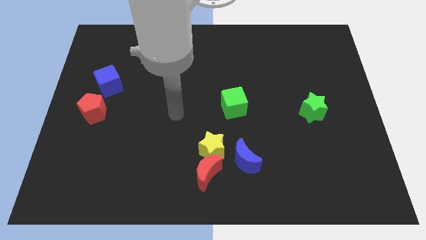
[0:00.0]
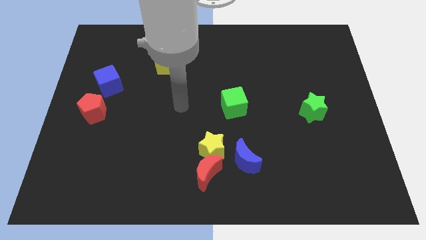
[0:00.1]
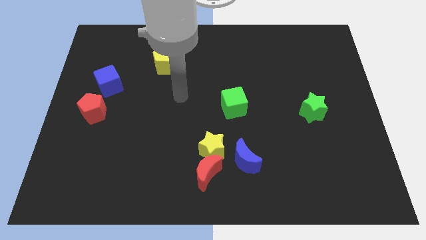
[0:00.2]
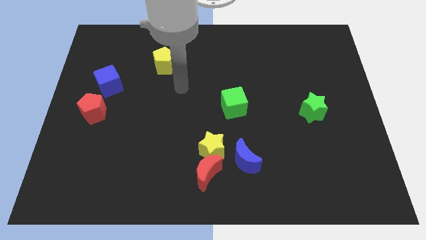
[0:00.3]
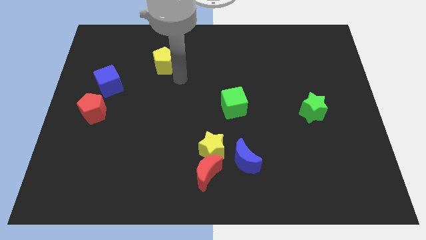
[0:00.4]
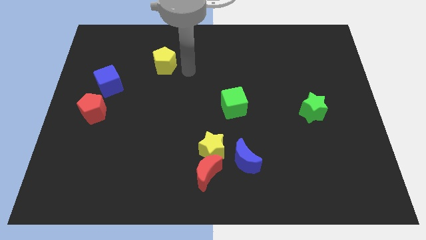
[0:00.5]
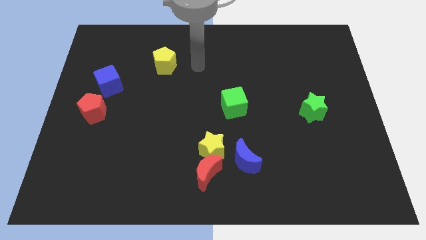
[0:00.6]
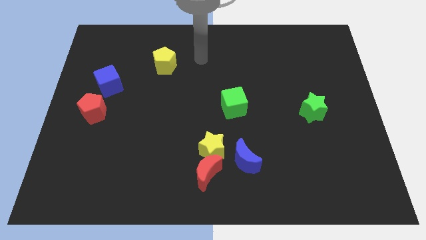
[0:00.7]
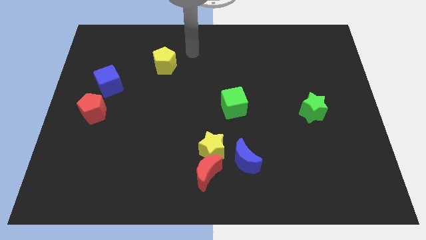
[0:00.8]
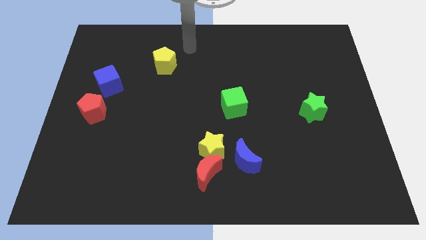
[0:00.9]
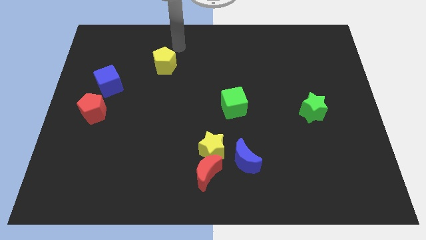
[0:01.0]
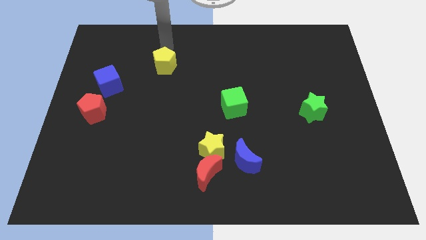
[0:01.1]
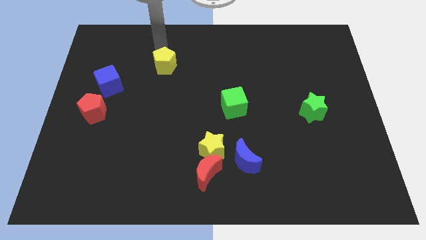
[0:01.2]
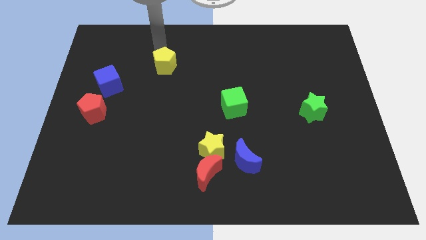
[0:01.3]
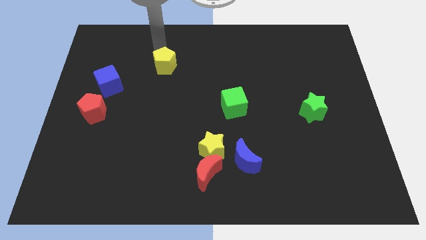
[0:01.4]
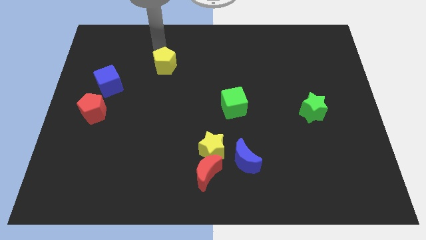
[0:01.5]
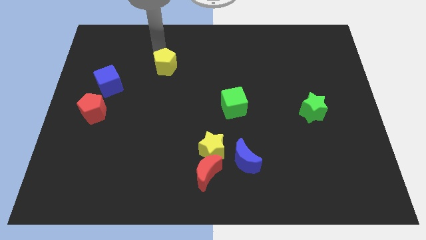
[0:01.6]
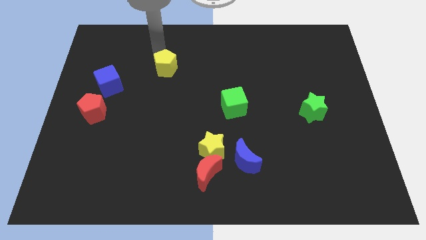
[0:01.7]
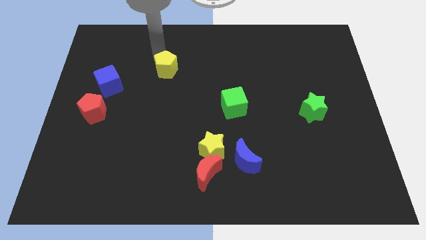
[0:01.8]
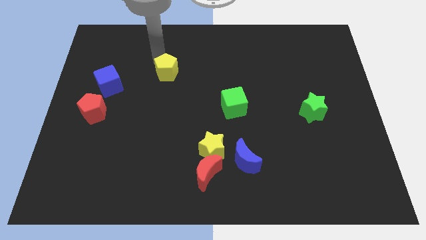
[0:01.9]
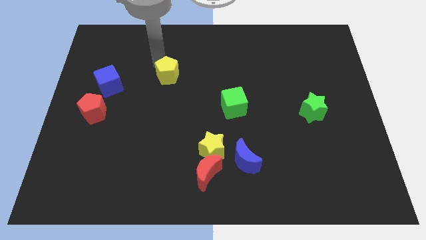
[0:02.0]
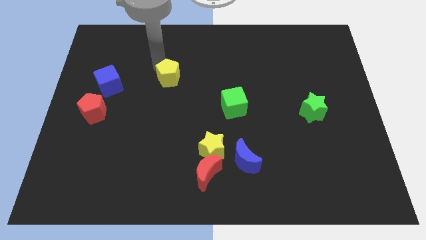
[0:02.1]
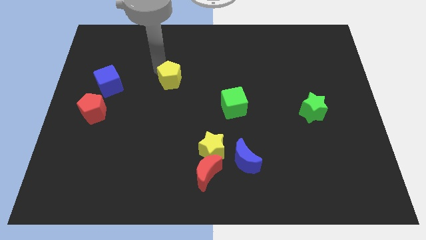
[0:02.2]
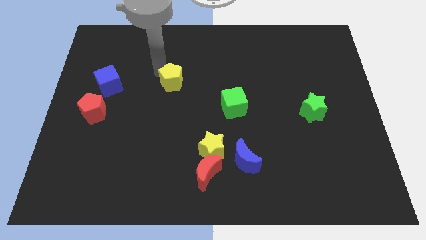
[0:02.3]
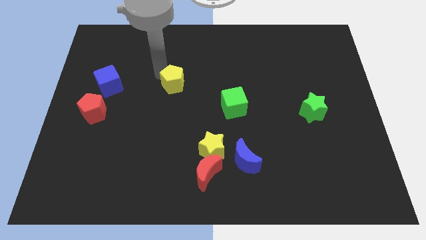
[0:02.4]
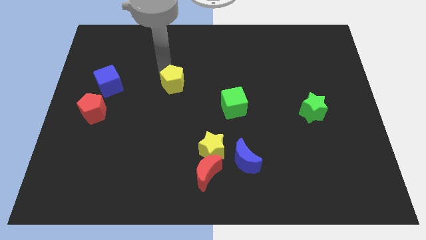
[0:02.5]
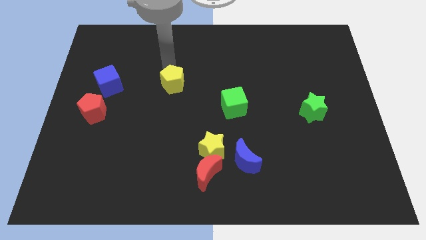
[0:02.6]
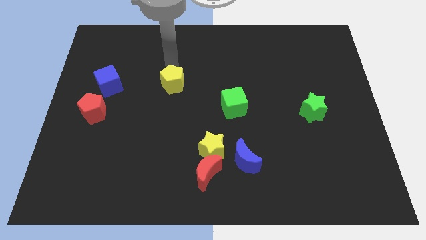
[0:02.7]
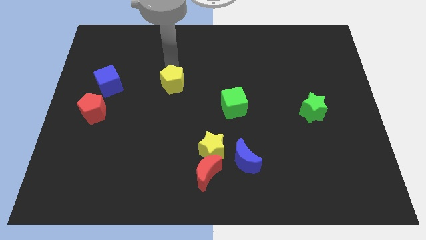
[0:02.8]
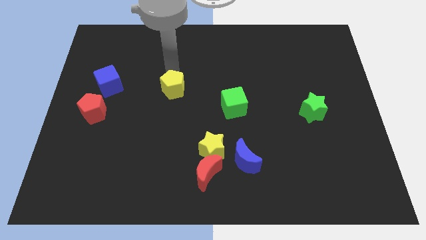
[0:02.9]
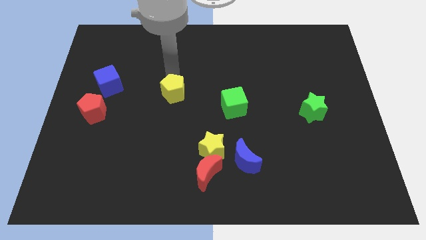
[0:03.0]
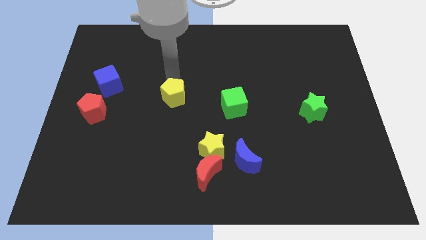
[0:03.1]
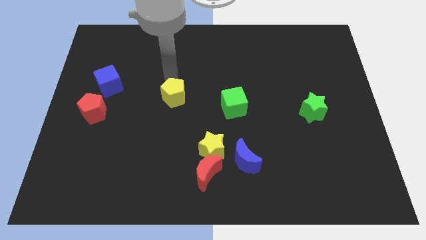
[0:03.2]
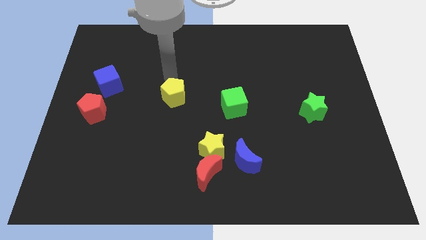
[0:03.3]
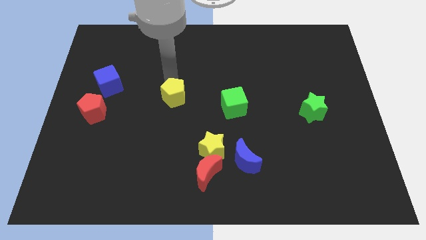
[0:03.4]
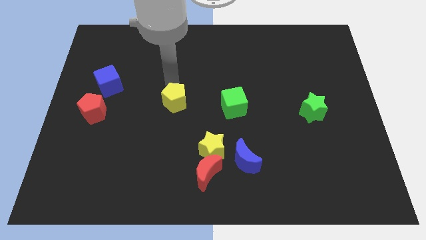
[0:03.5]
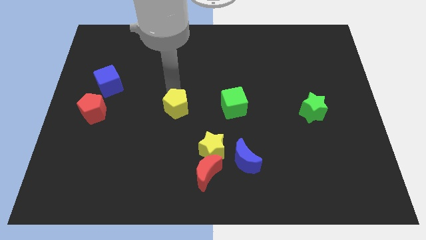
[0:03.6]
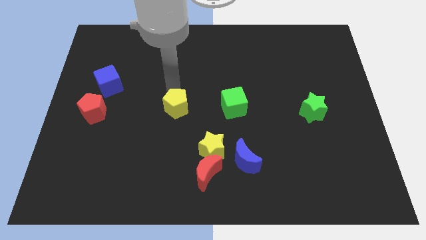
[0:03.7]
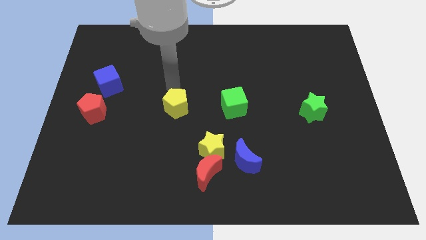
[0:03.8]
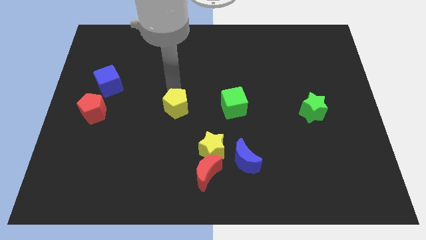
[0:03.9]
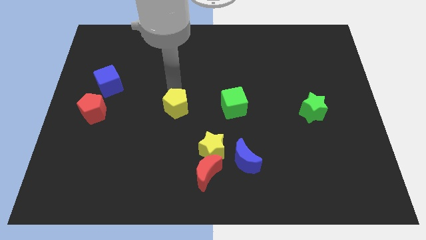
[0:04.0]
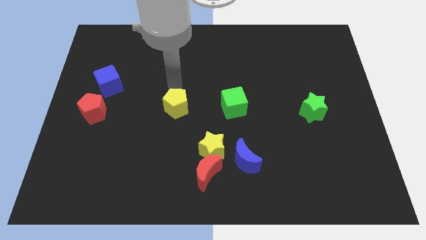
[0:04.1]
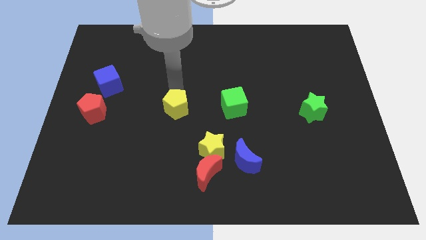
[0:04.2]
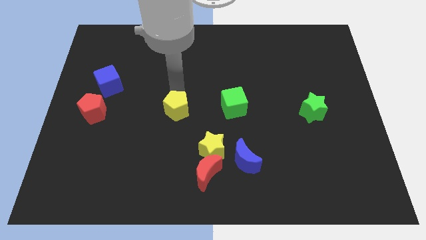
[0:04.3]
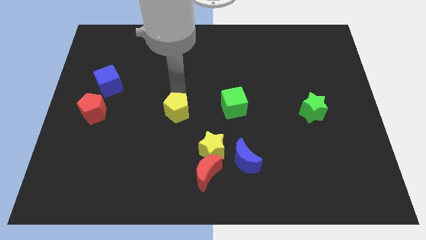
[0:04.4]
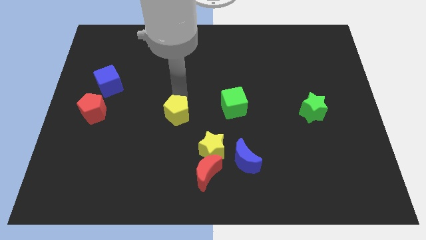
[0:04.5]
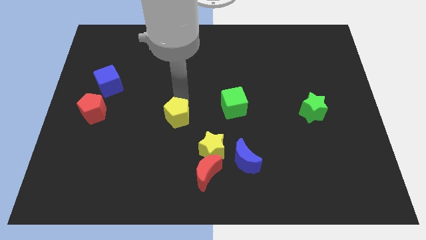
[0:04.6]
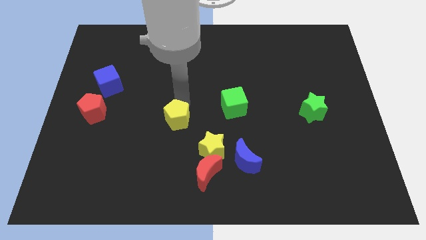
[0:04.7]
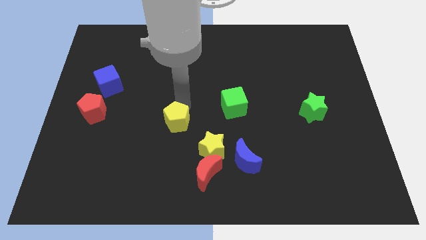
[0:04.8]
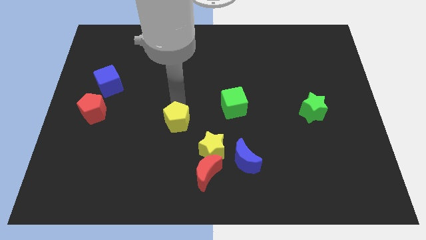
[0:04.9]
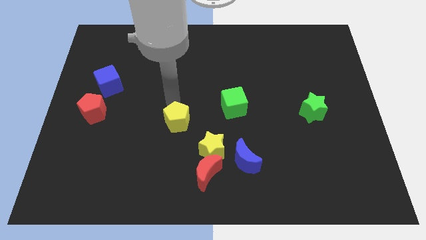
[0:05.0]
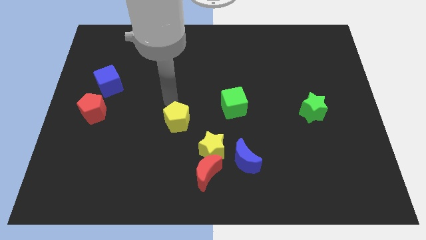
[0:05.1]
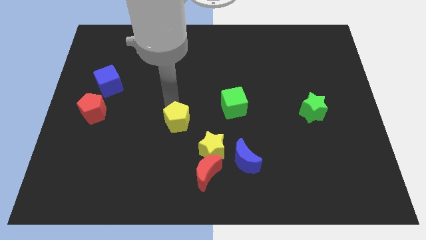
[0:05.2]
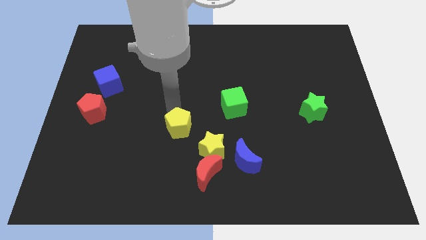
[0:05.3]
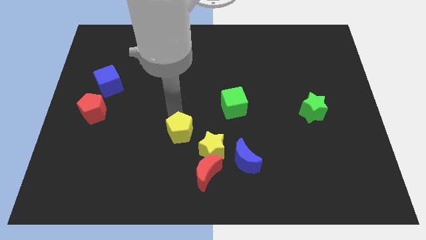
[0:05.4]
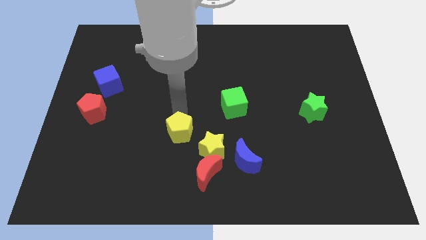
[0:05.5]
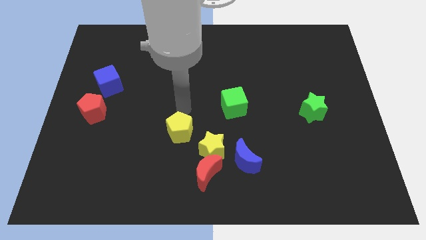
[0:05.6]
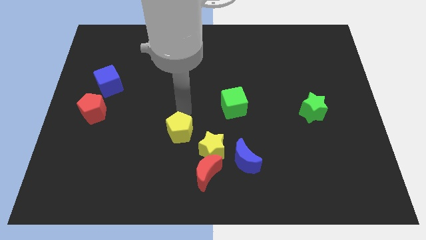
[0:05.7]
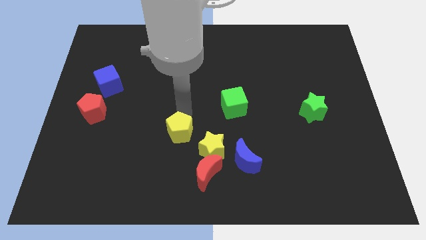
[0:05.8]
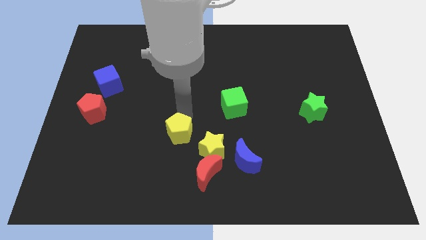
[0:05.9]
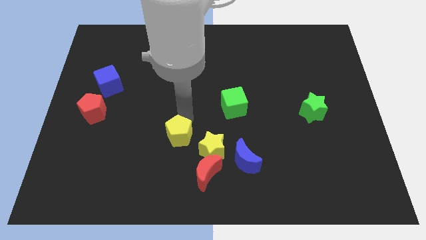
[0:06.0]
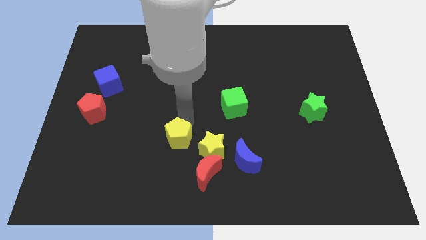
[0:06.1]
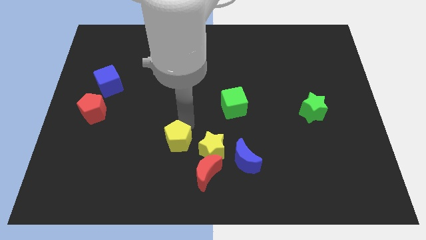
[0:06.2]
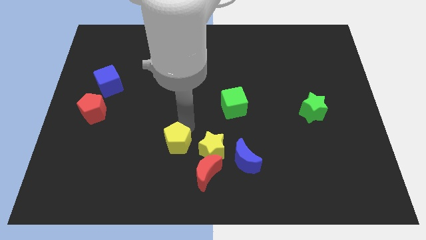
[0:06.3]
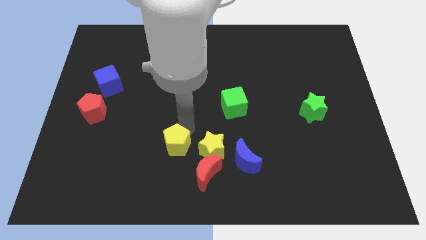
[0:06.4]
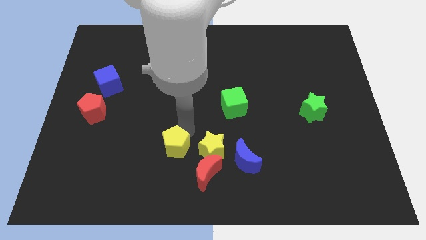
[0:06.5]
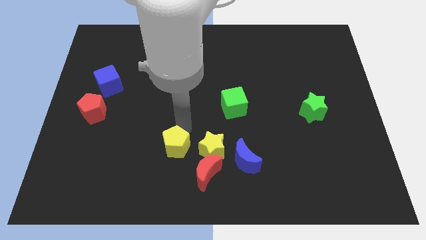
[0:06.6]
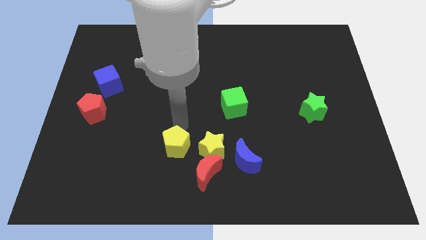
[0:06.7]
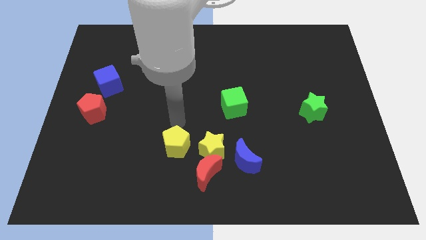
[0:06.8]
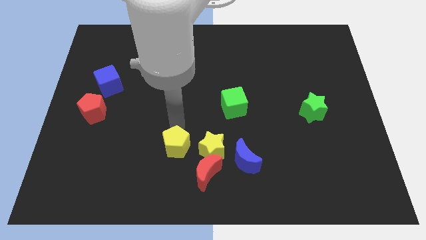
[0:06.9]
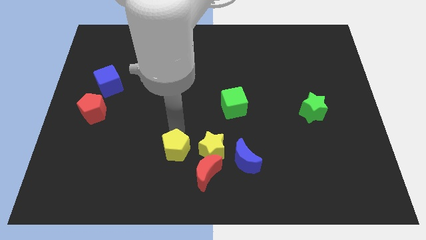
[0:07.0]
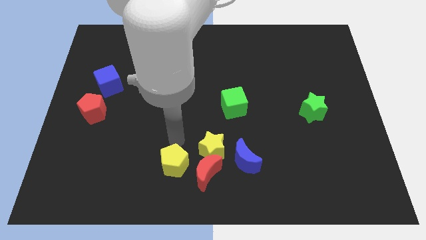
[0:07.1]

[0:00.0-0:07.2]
move the yellow pentagon to the bottom

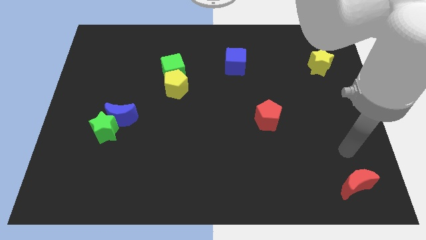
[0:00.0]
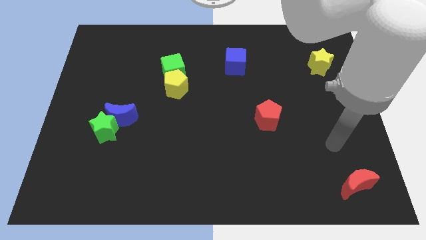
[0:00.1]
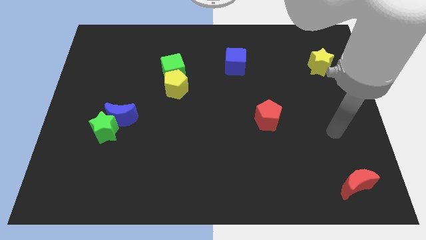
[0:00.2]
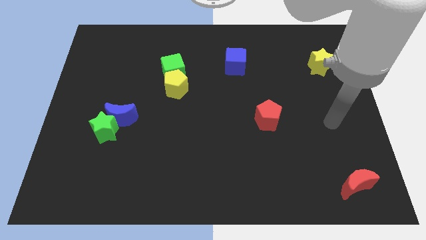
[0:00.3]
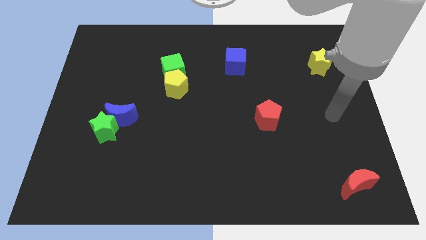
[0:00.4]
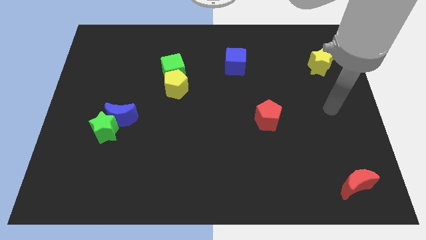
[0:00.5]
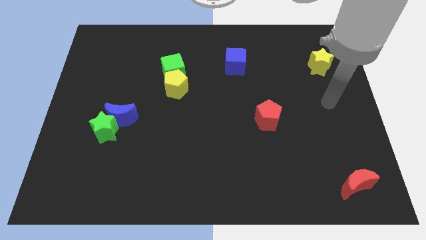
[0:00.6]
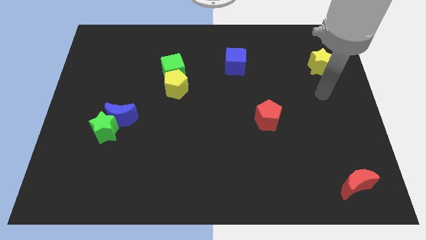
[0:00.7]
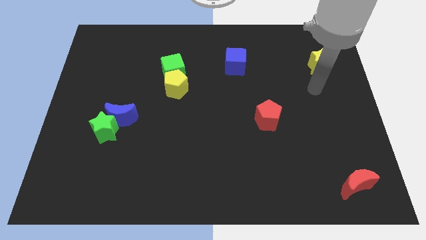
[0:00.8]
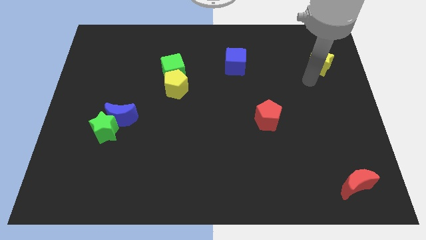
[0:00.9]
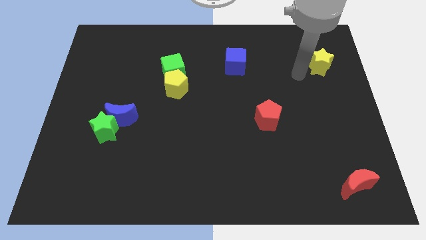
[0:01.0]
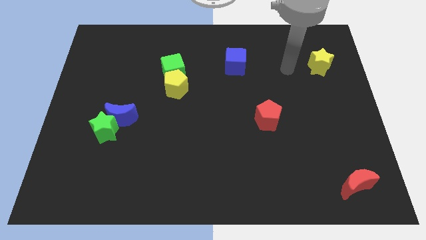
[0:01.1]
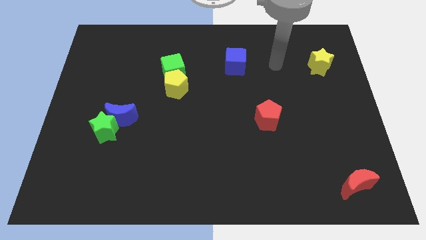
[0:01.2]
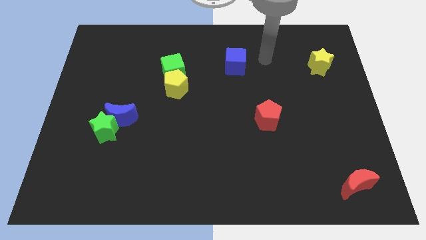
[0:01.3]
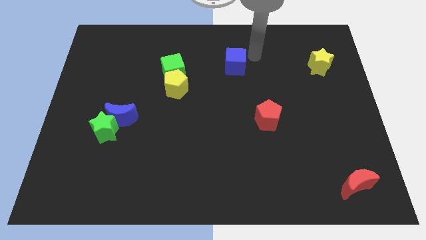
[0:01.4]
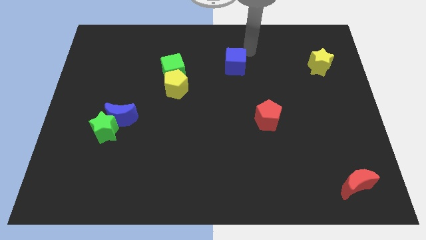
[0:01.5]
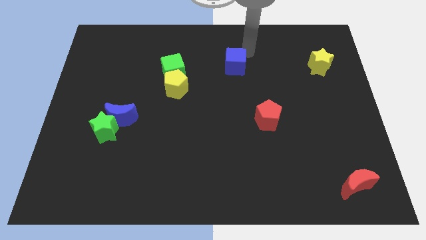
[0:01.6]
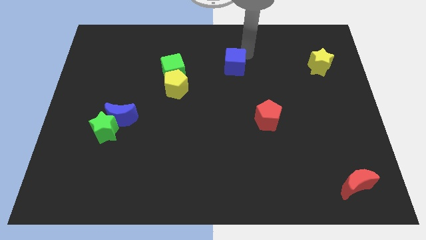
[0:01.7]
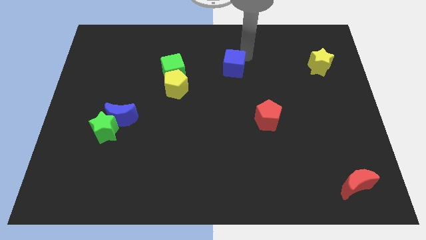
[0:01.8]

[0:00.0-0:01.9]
slide the blue cube to the center
